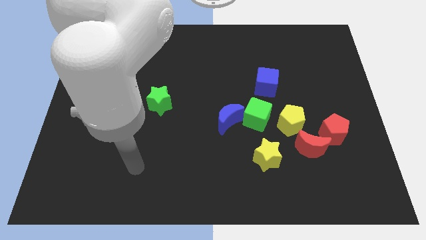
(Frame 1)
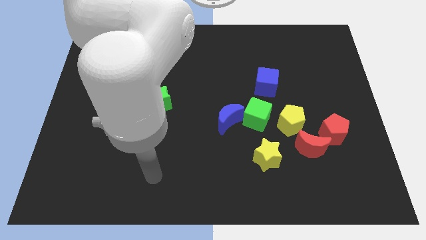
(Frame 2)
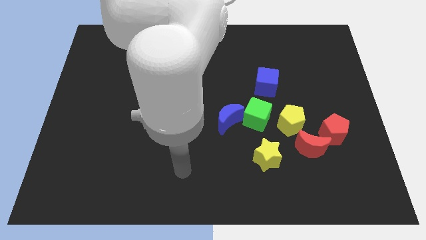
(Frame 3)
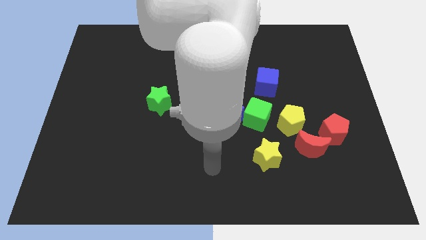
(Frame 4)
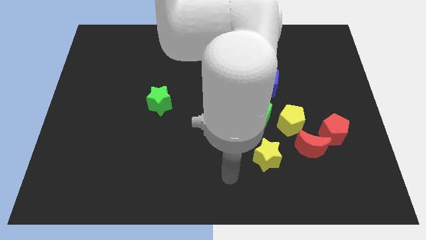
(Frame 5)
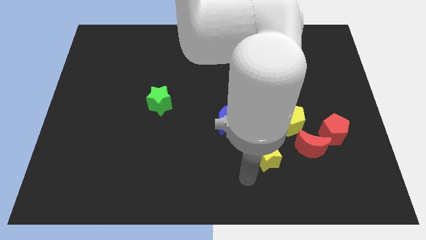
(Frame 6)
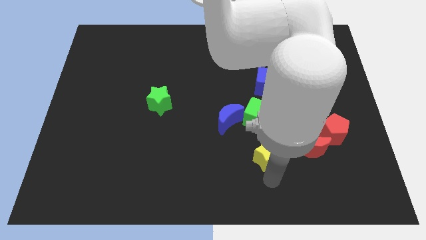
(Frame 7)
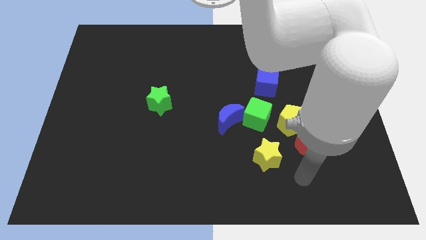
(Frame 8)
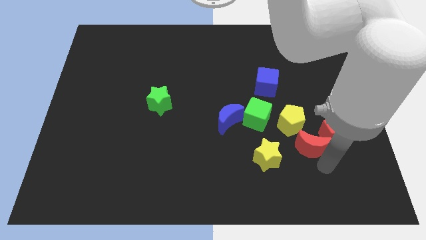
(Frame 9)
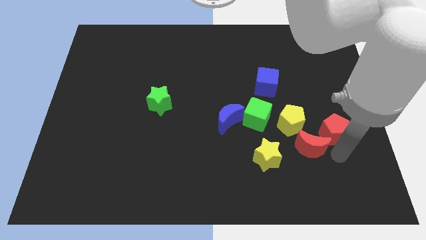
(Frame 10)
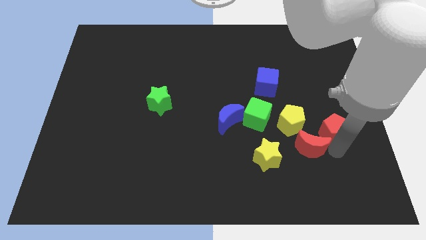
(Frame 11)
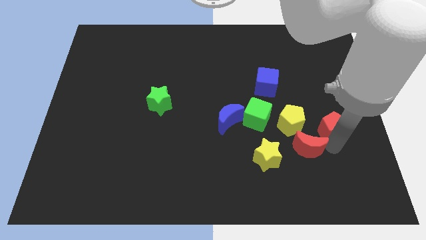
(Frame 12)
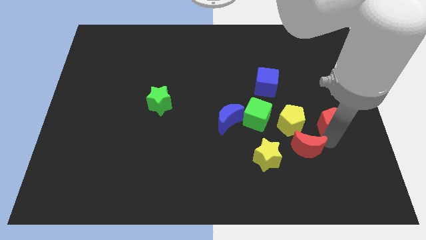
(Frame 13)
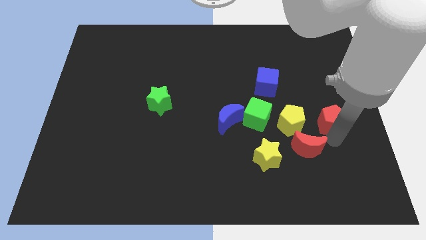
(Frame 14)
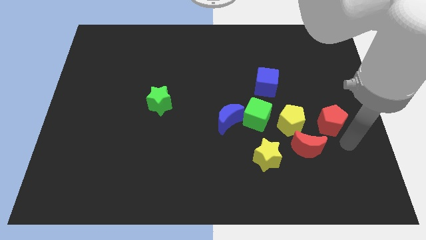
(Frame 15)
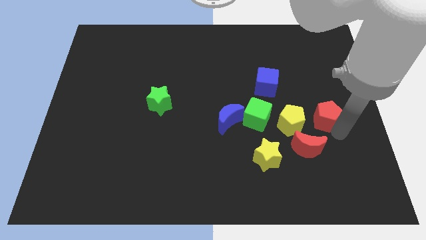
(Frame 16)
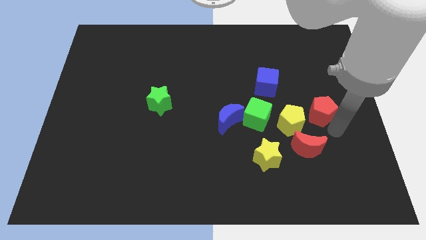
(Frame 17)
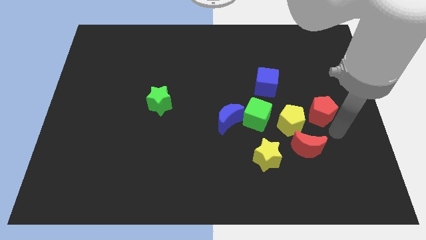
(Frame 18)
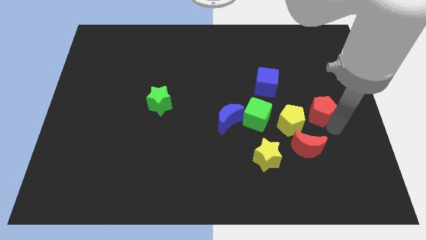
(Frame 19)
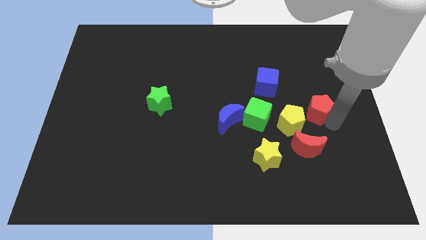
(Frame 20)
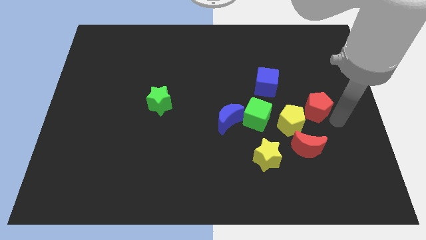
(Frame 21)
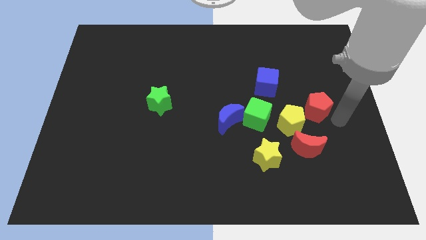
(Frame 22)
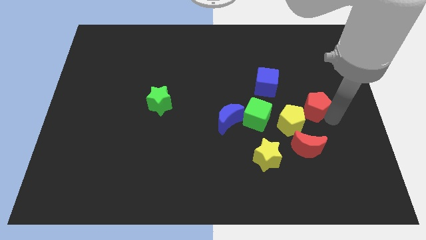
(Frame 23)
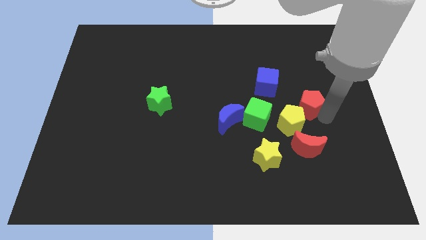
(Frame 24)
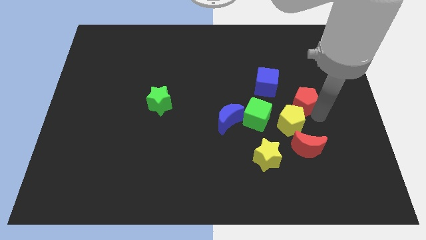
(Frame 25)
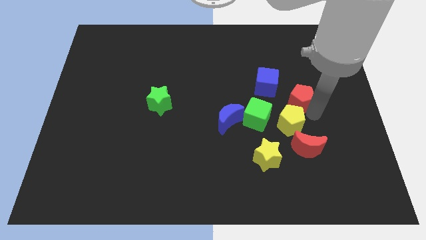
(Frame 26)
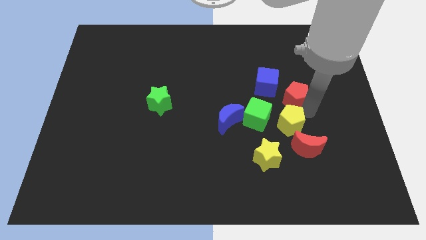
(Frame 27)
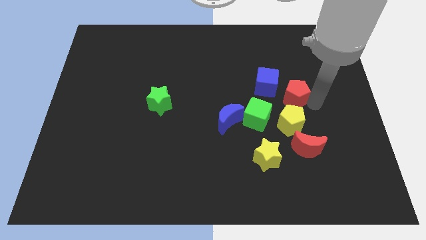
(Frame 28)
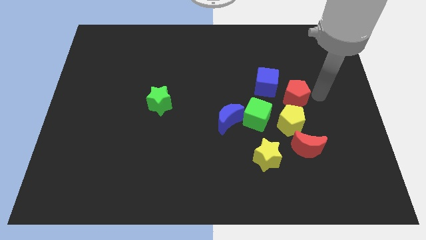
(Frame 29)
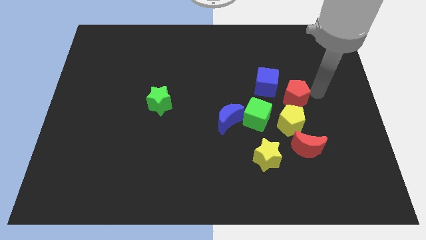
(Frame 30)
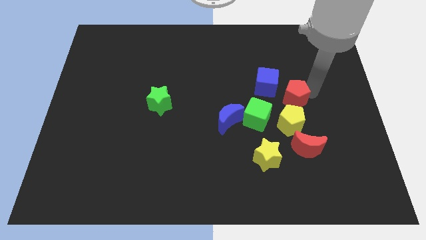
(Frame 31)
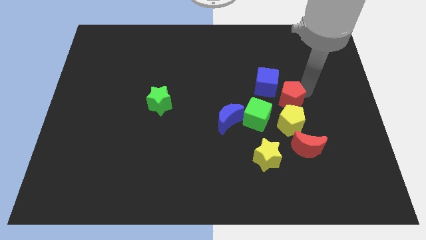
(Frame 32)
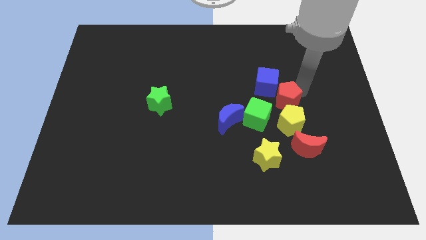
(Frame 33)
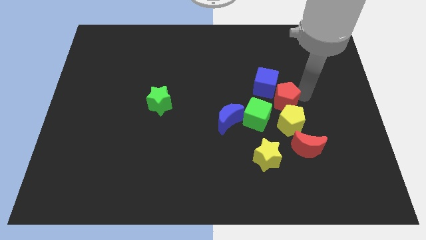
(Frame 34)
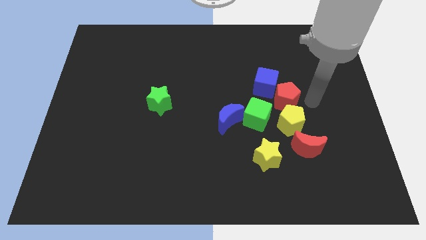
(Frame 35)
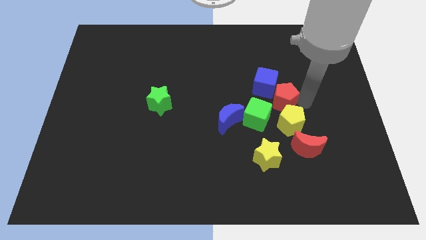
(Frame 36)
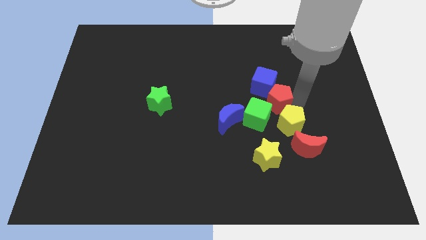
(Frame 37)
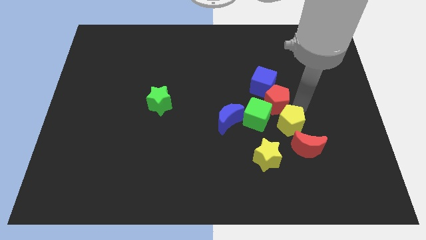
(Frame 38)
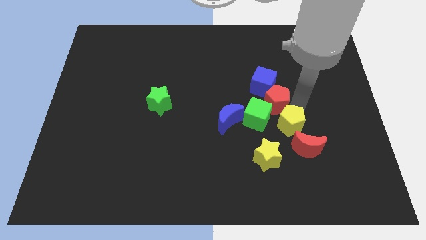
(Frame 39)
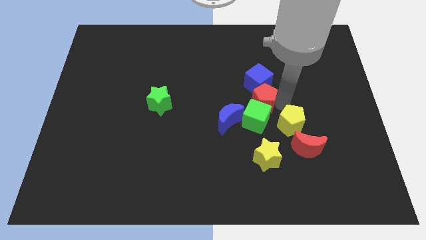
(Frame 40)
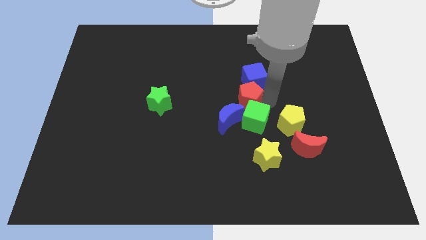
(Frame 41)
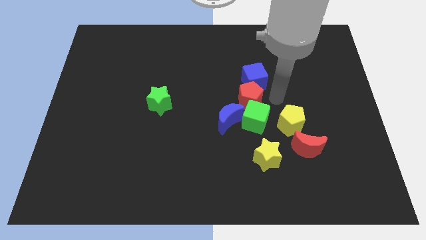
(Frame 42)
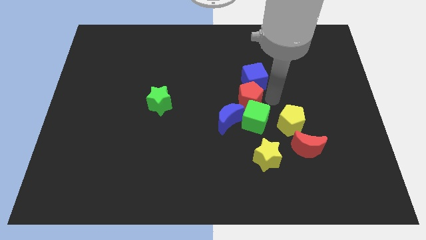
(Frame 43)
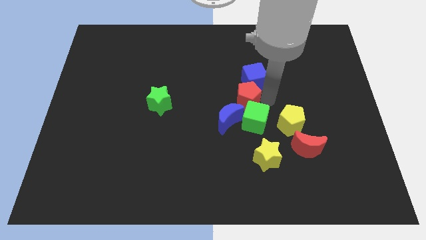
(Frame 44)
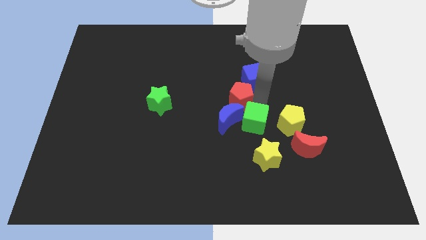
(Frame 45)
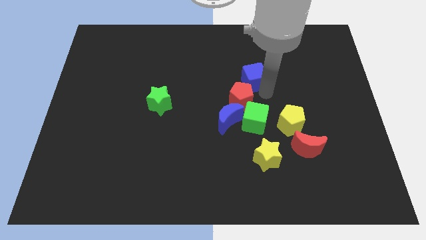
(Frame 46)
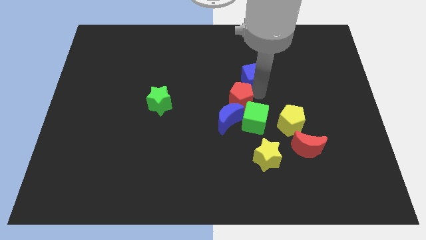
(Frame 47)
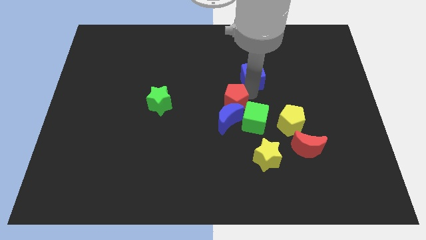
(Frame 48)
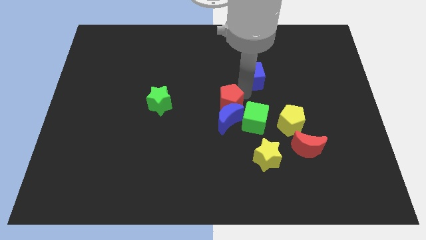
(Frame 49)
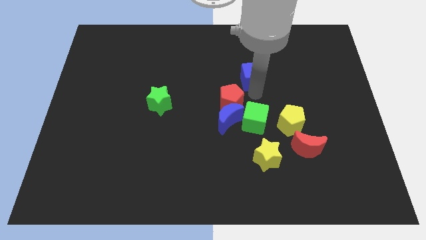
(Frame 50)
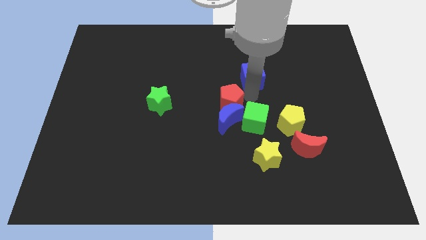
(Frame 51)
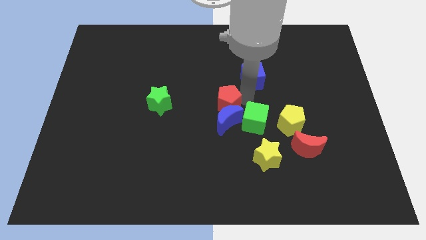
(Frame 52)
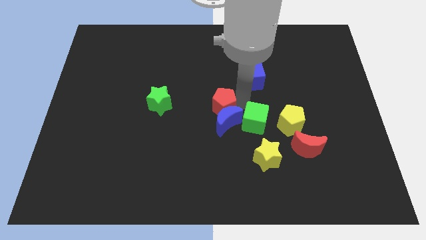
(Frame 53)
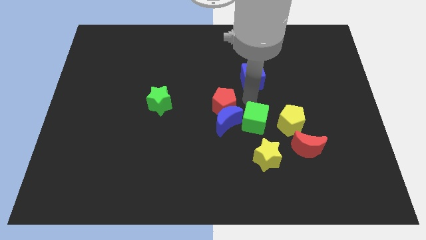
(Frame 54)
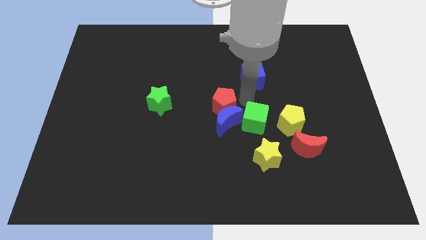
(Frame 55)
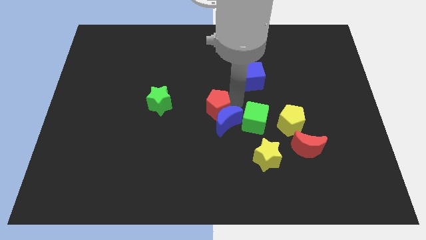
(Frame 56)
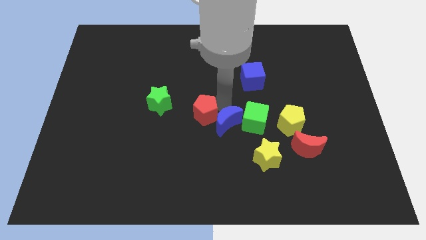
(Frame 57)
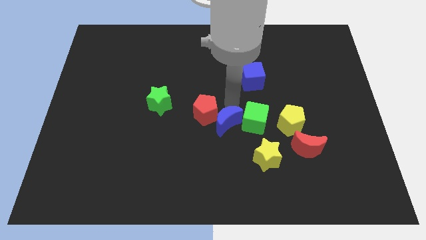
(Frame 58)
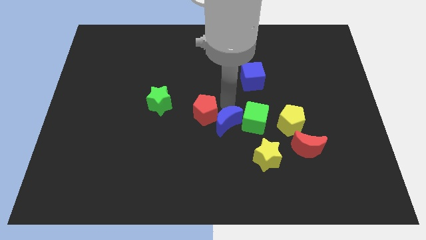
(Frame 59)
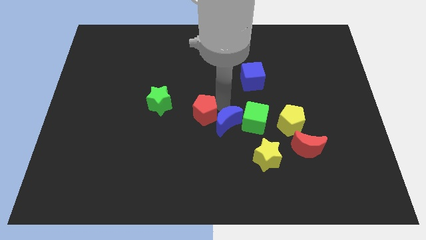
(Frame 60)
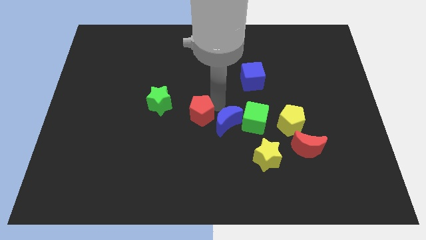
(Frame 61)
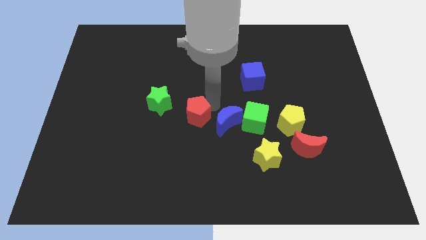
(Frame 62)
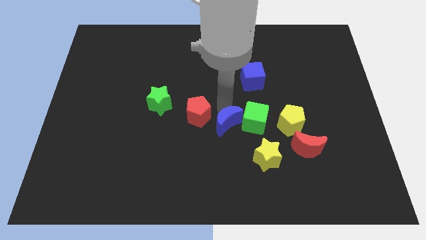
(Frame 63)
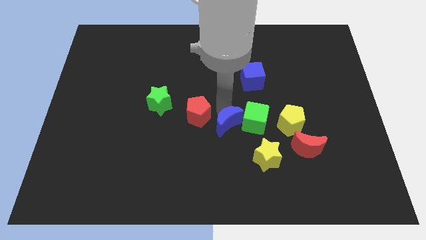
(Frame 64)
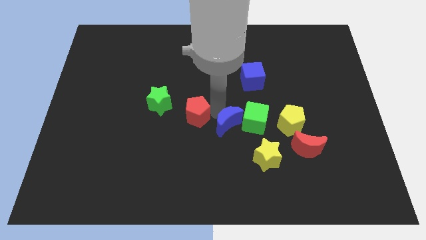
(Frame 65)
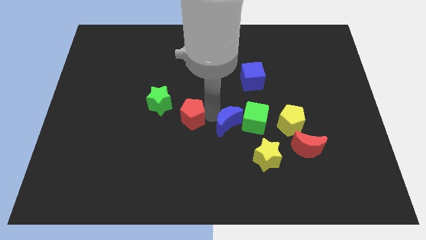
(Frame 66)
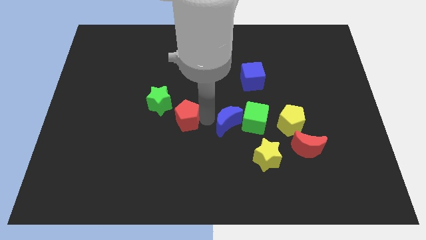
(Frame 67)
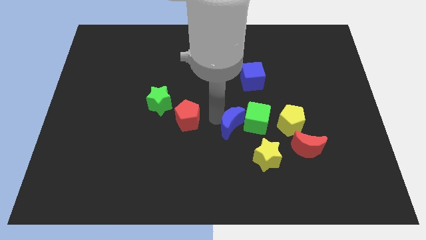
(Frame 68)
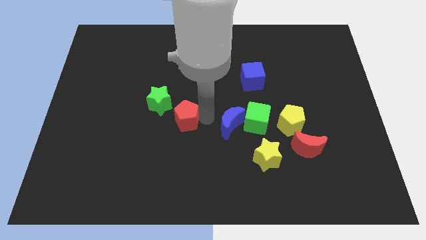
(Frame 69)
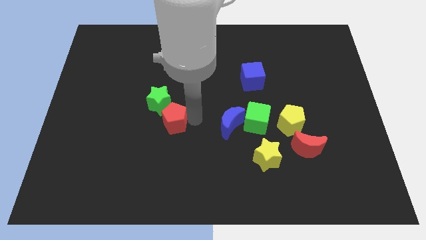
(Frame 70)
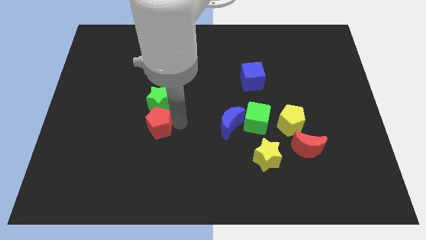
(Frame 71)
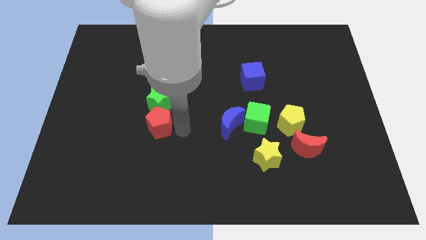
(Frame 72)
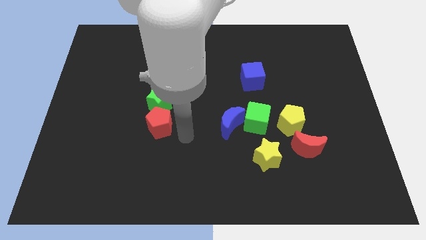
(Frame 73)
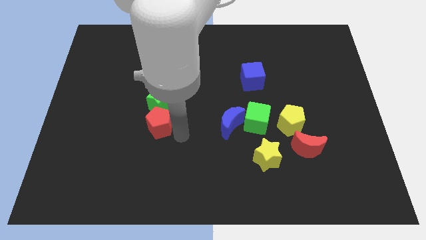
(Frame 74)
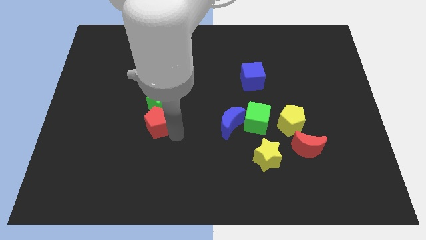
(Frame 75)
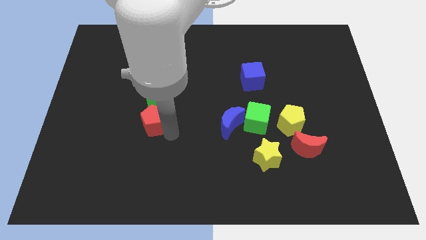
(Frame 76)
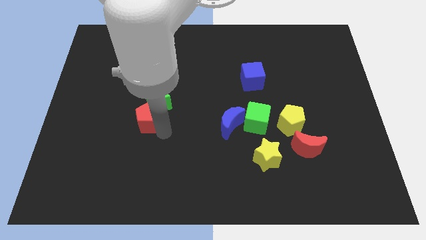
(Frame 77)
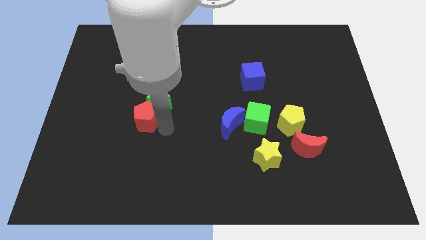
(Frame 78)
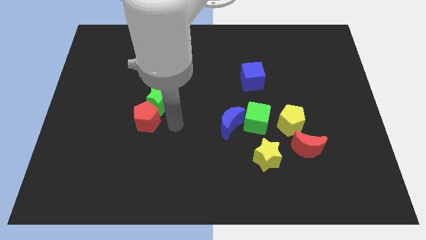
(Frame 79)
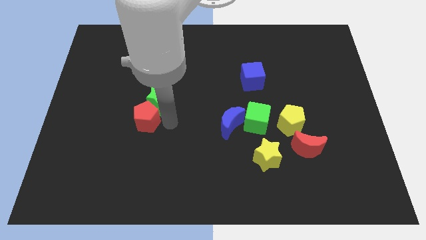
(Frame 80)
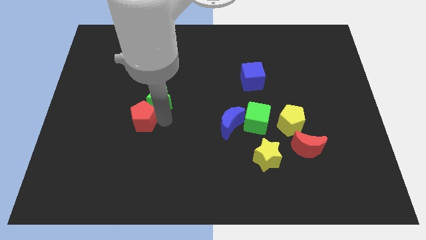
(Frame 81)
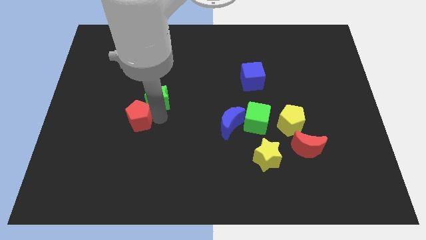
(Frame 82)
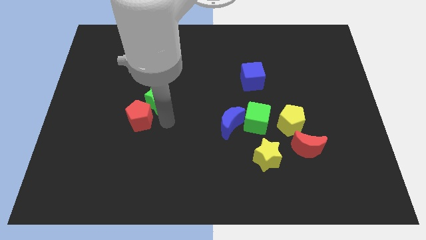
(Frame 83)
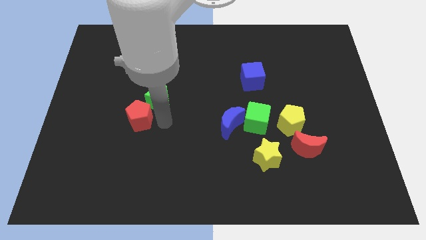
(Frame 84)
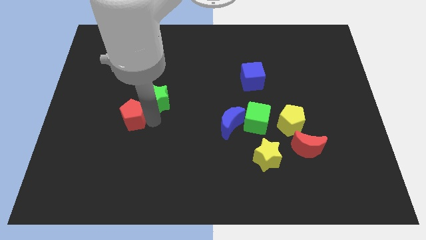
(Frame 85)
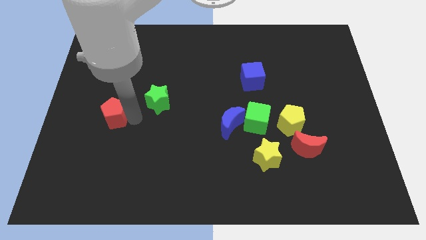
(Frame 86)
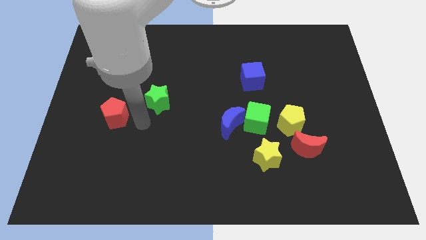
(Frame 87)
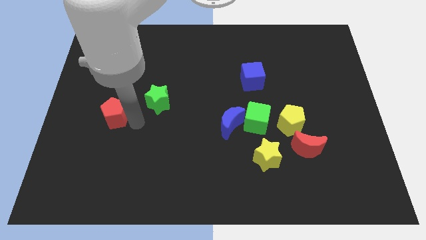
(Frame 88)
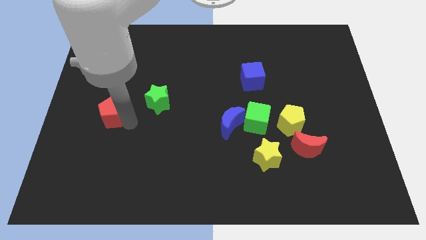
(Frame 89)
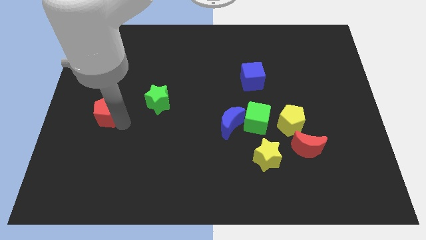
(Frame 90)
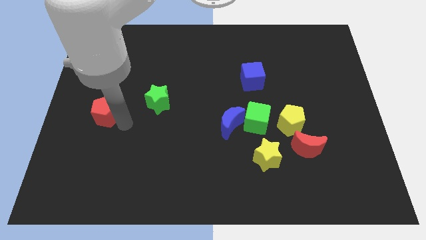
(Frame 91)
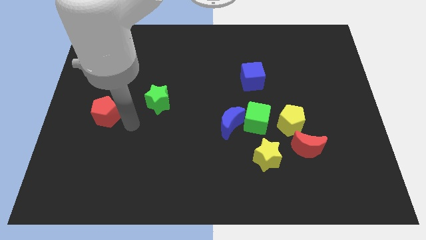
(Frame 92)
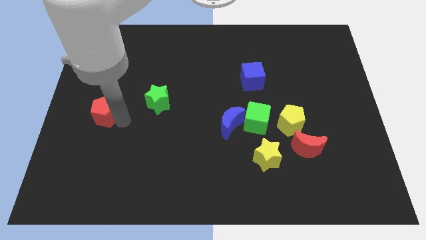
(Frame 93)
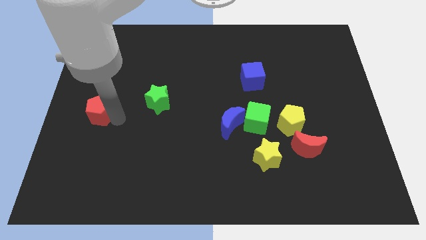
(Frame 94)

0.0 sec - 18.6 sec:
push the red pentagon to the left side of the board
